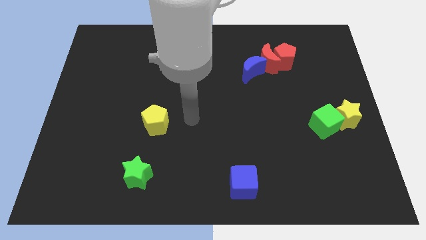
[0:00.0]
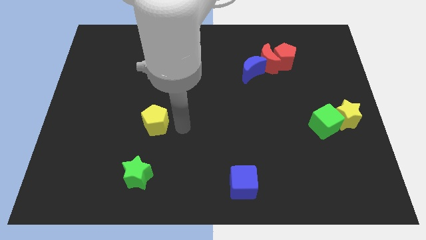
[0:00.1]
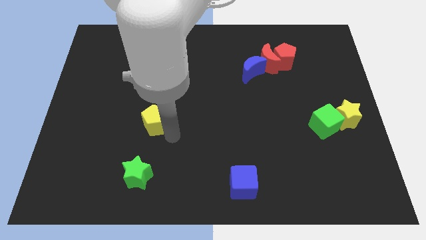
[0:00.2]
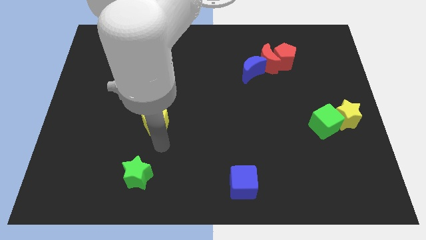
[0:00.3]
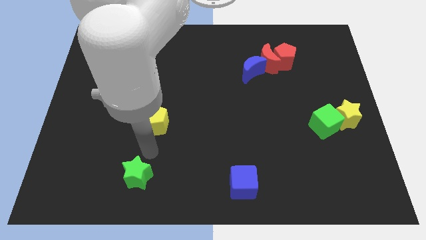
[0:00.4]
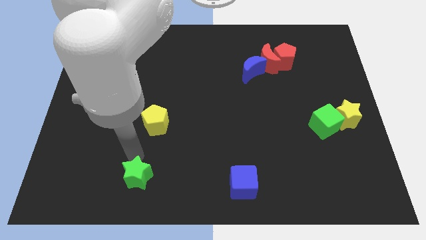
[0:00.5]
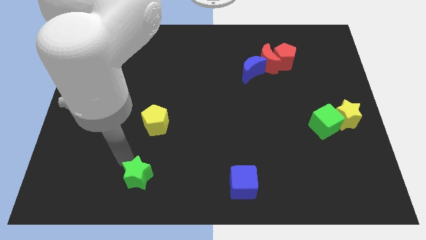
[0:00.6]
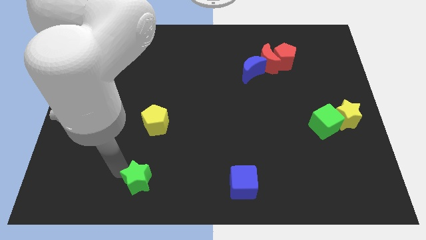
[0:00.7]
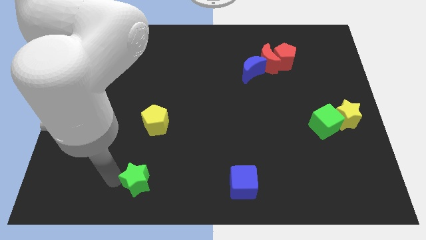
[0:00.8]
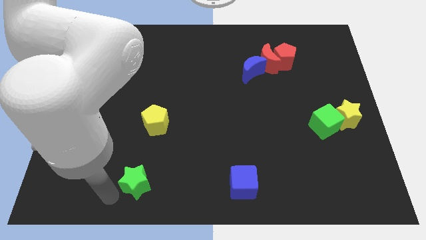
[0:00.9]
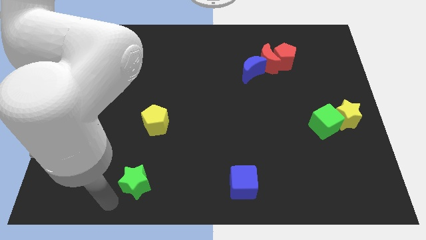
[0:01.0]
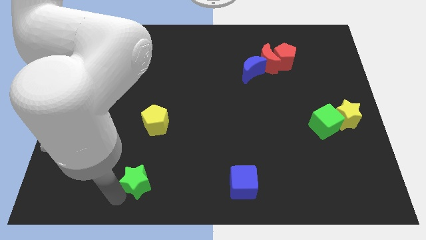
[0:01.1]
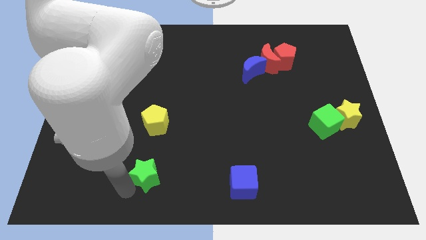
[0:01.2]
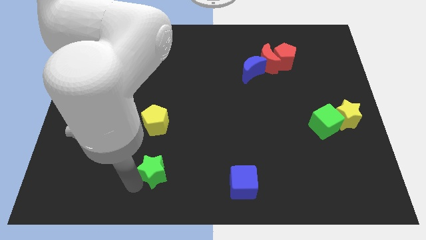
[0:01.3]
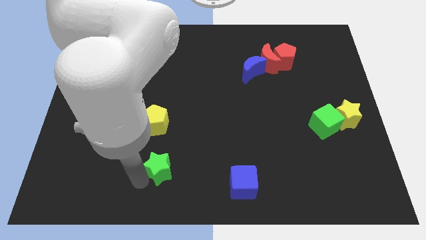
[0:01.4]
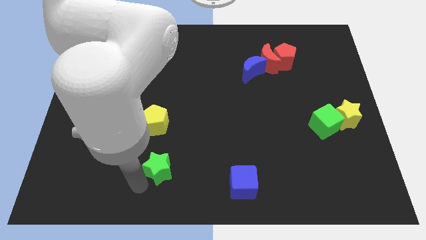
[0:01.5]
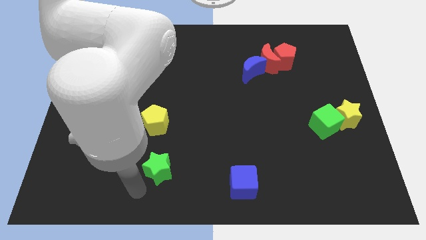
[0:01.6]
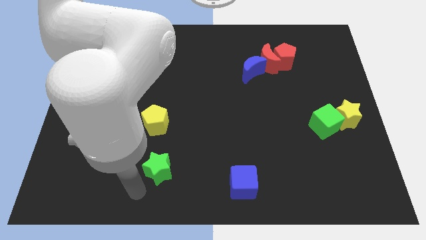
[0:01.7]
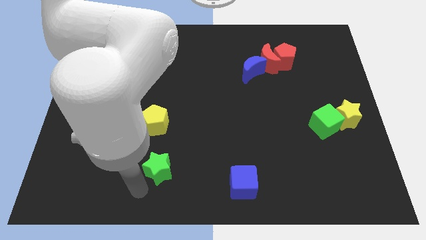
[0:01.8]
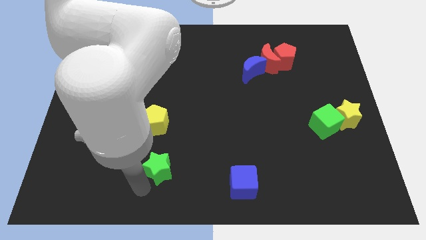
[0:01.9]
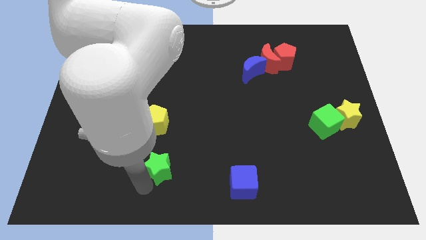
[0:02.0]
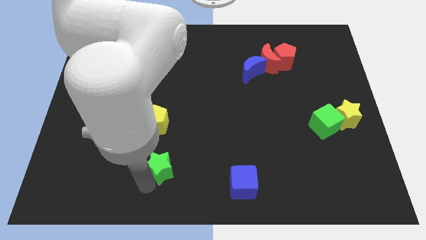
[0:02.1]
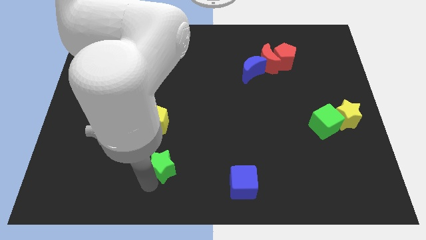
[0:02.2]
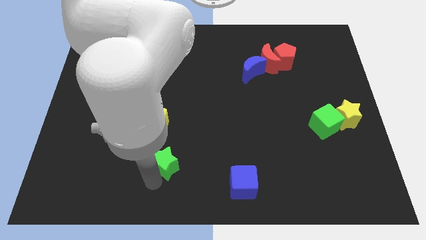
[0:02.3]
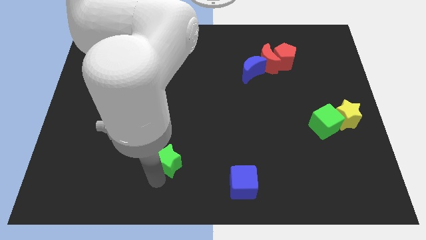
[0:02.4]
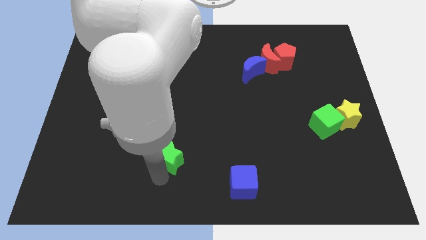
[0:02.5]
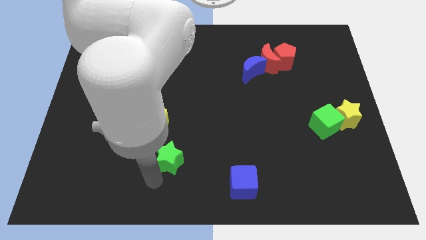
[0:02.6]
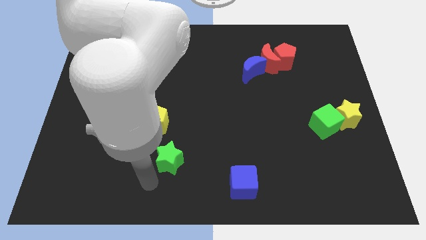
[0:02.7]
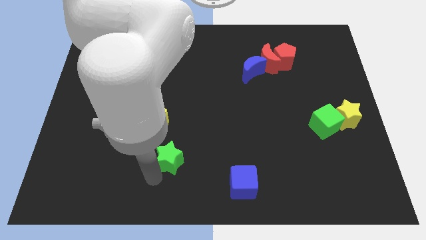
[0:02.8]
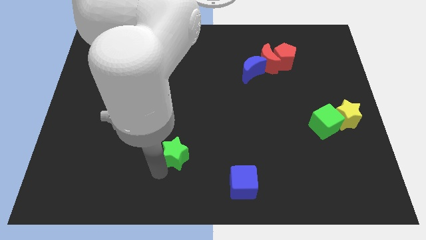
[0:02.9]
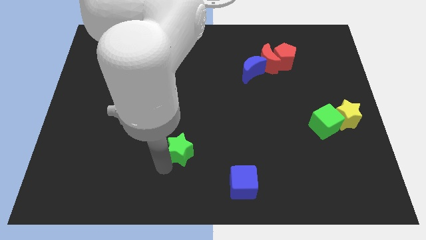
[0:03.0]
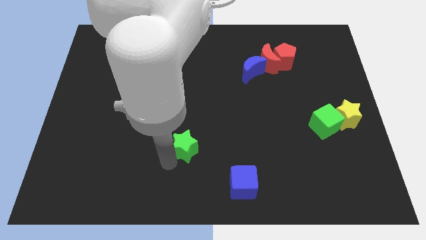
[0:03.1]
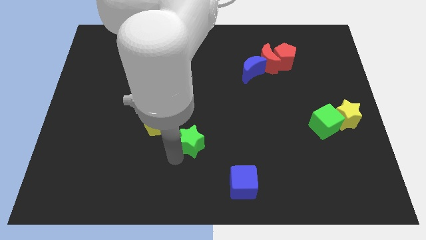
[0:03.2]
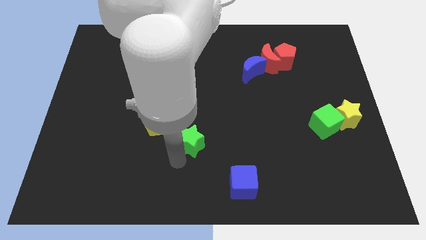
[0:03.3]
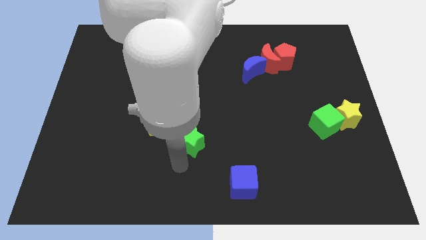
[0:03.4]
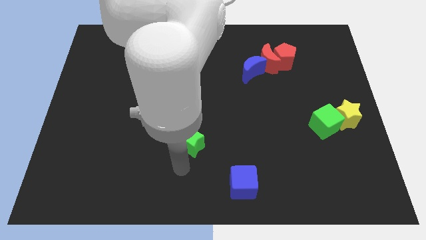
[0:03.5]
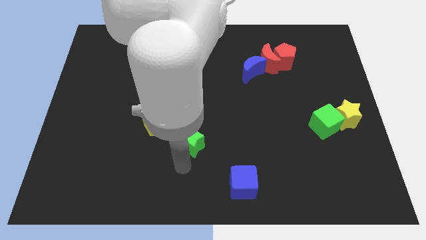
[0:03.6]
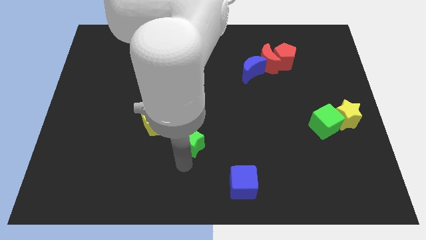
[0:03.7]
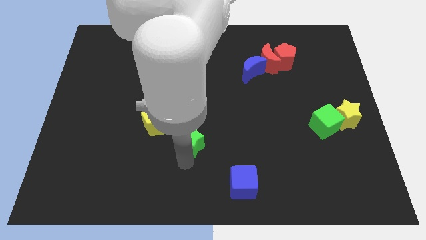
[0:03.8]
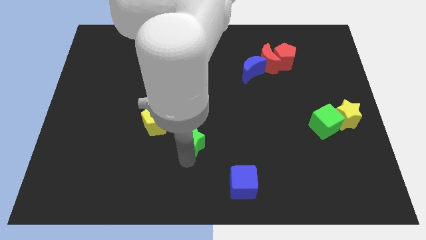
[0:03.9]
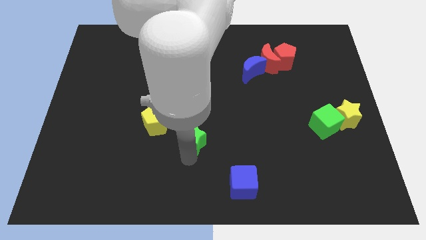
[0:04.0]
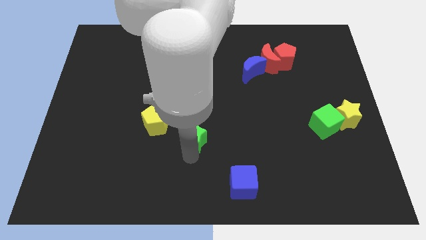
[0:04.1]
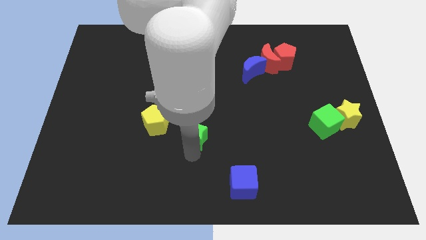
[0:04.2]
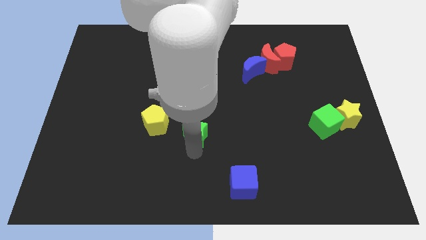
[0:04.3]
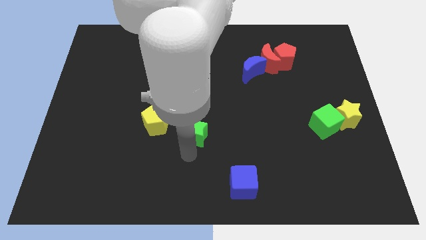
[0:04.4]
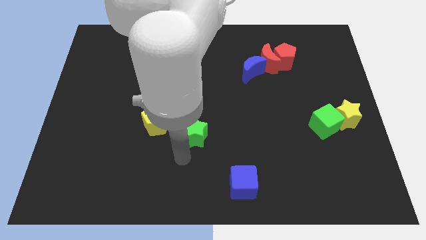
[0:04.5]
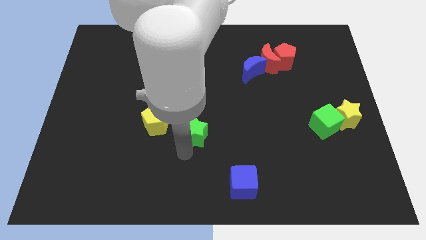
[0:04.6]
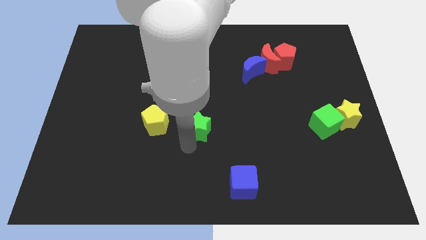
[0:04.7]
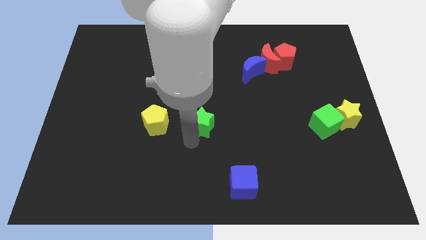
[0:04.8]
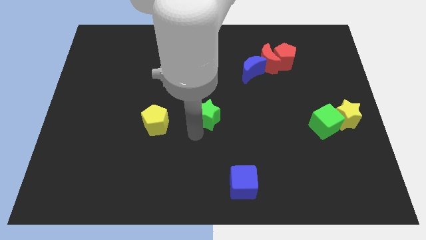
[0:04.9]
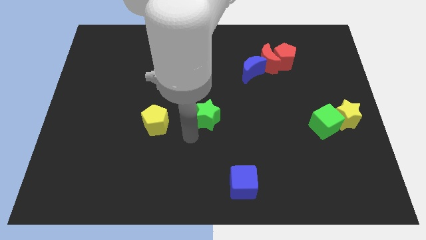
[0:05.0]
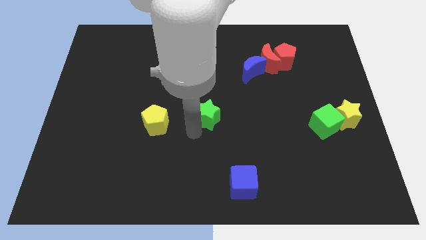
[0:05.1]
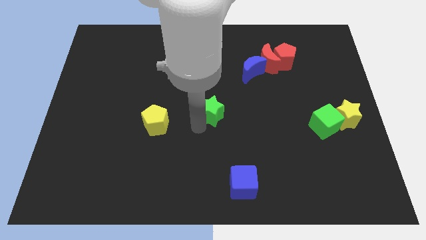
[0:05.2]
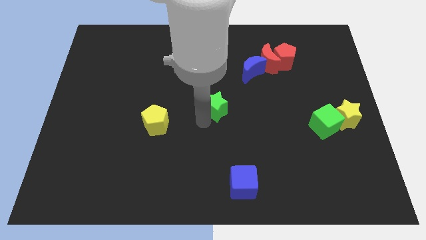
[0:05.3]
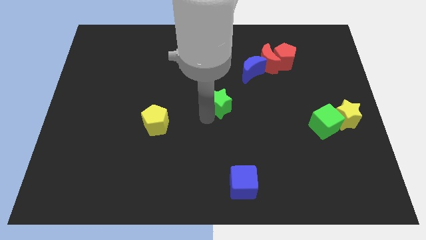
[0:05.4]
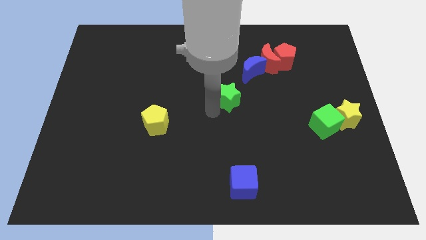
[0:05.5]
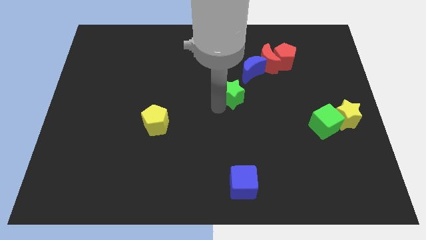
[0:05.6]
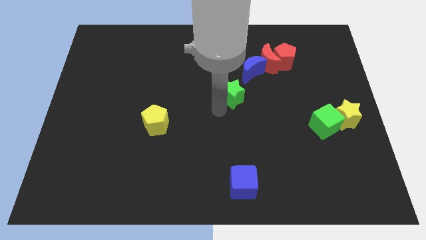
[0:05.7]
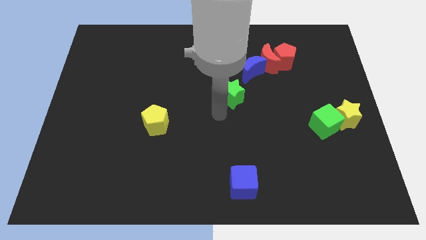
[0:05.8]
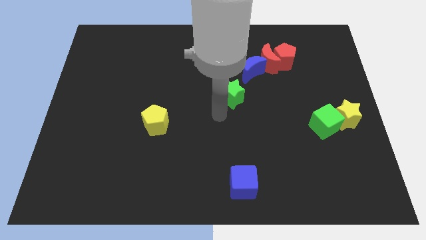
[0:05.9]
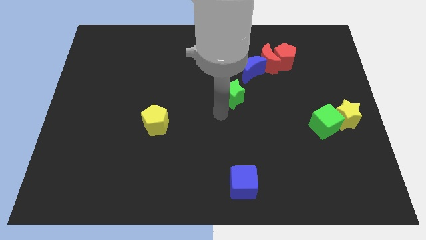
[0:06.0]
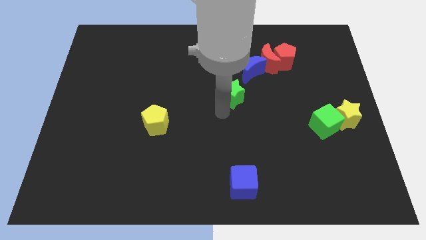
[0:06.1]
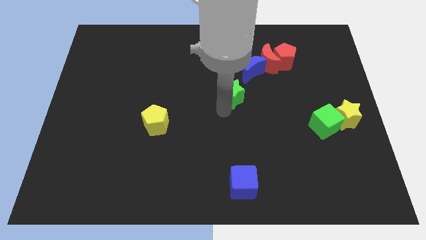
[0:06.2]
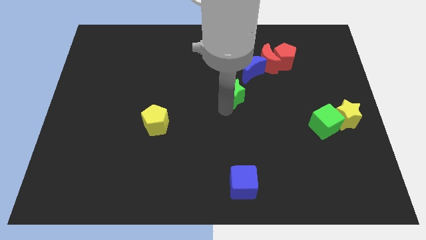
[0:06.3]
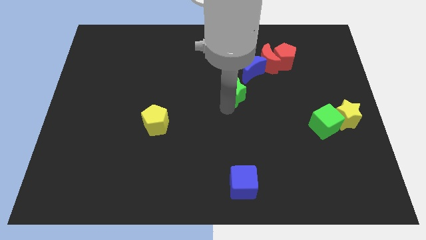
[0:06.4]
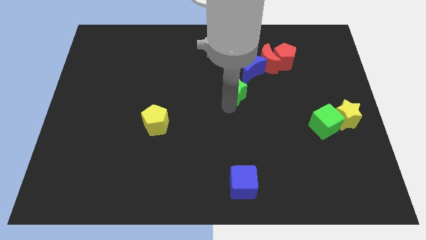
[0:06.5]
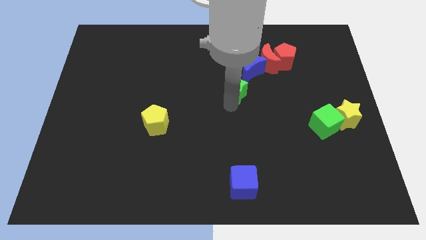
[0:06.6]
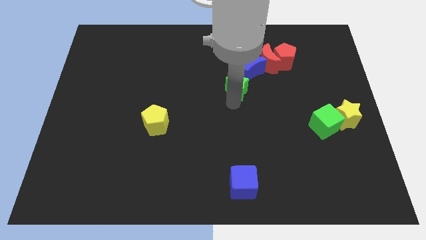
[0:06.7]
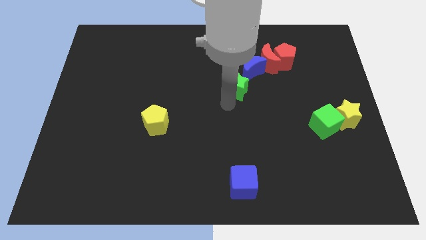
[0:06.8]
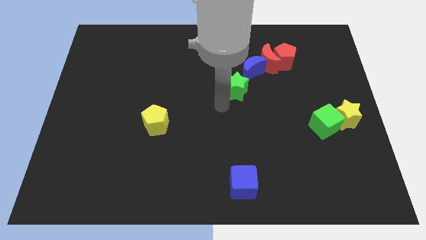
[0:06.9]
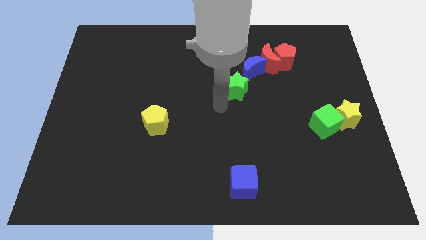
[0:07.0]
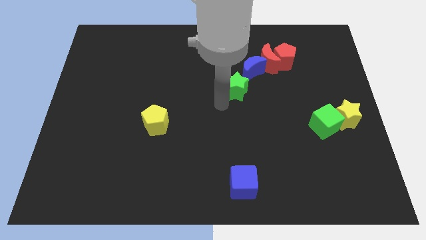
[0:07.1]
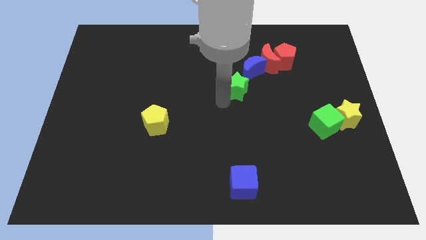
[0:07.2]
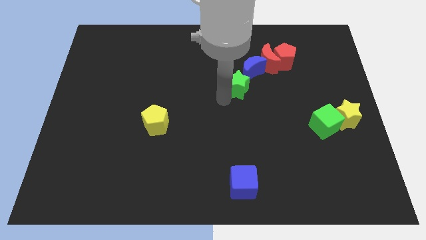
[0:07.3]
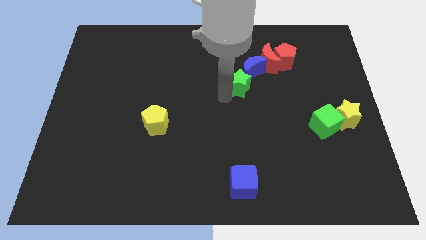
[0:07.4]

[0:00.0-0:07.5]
push the green star close to the blue moon
